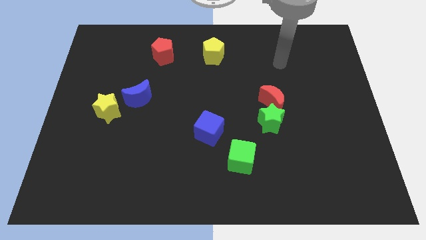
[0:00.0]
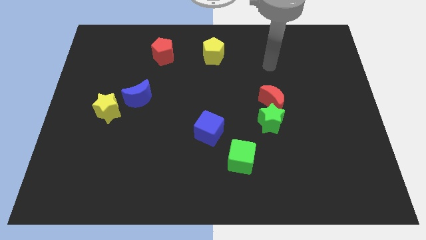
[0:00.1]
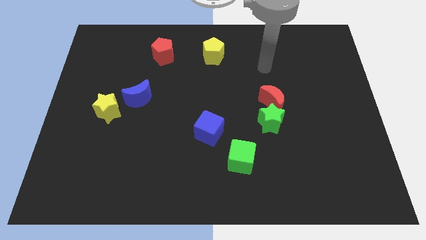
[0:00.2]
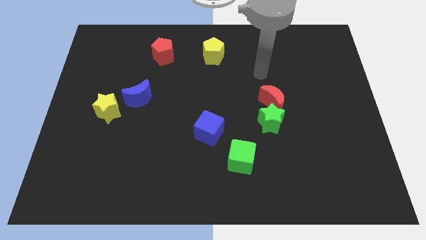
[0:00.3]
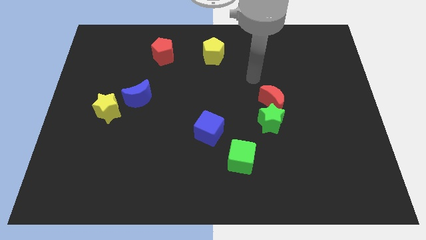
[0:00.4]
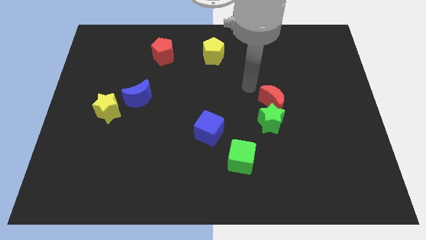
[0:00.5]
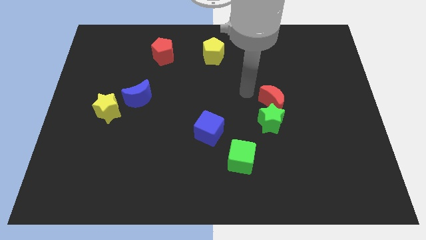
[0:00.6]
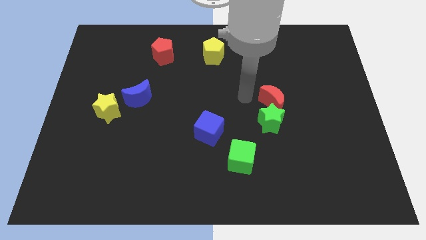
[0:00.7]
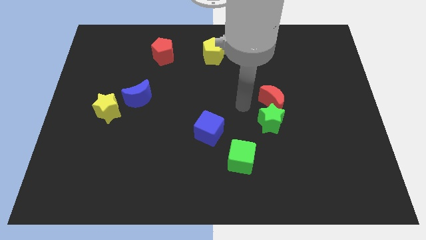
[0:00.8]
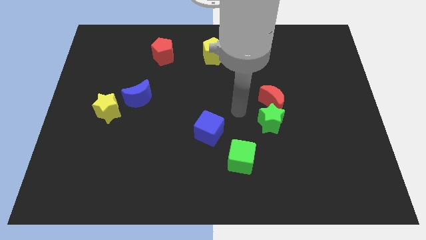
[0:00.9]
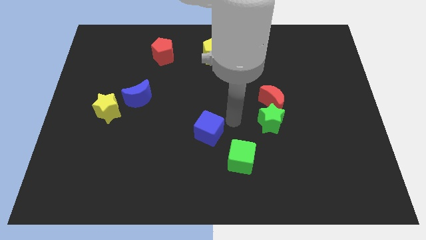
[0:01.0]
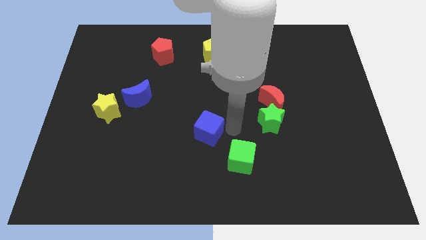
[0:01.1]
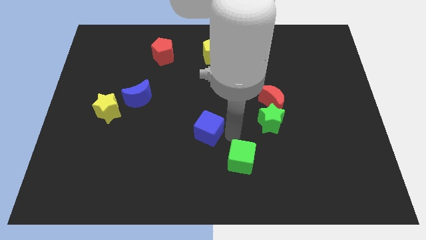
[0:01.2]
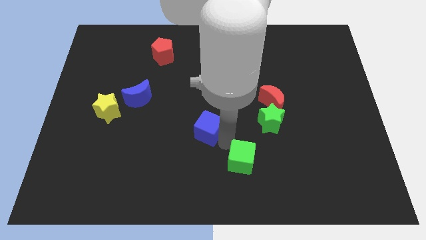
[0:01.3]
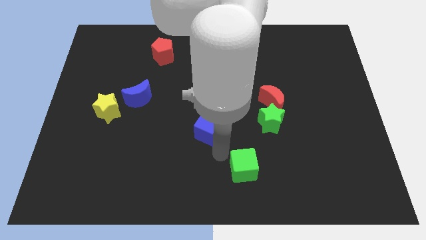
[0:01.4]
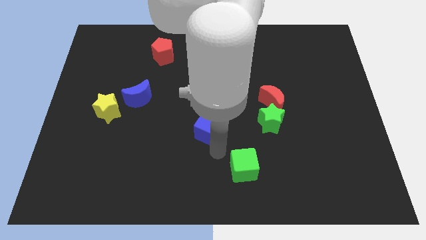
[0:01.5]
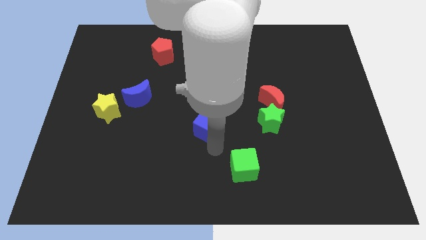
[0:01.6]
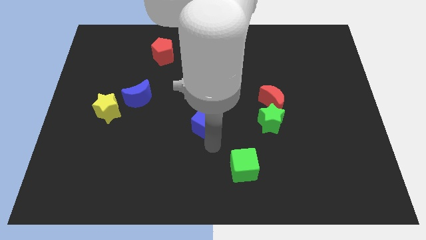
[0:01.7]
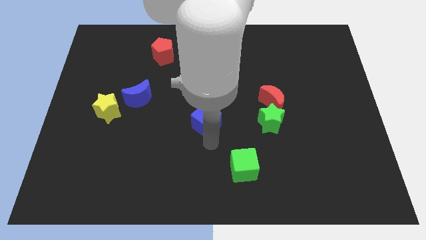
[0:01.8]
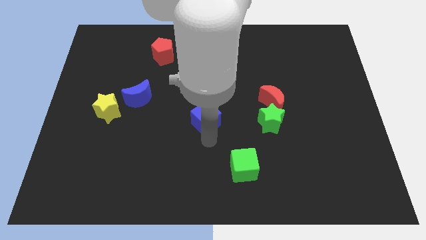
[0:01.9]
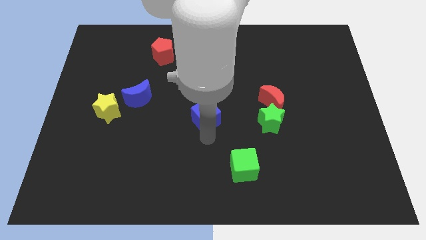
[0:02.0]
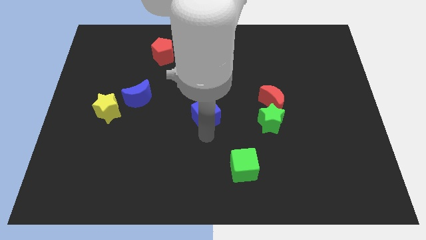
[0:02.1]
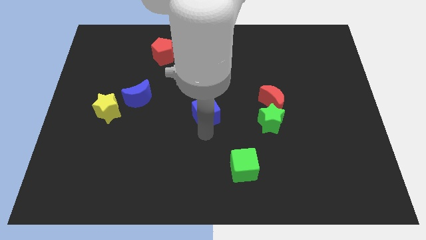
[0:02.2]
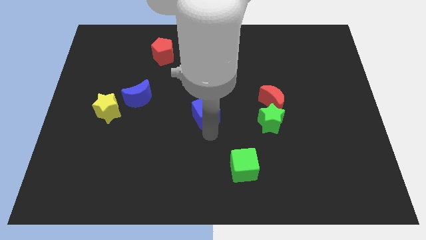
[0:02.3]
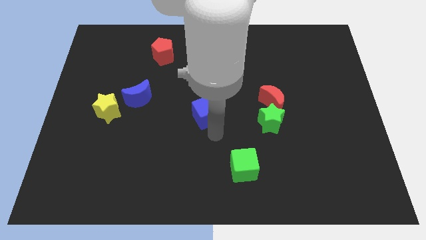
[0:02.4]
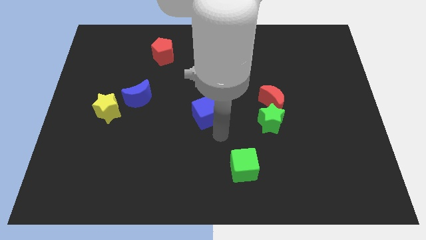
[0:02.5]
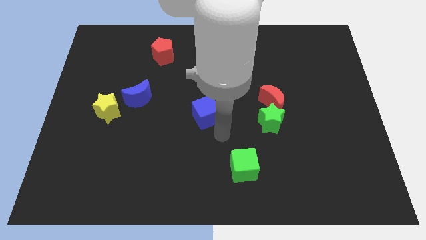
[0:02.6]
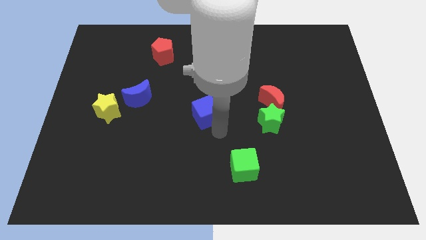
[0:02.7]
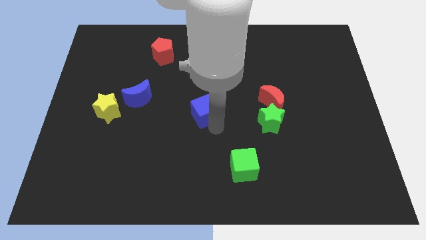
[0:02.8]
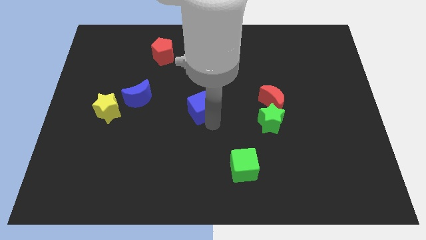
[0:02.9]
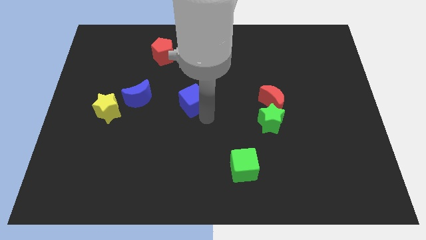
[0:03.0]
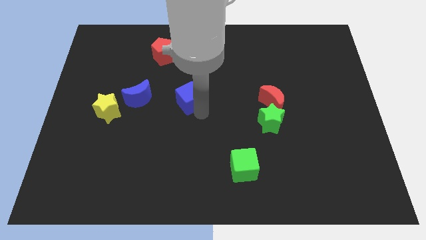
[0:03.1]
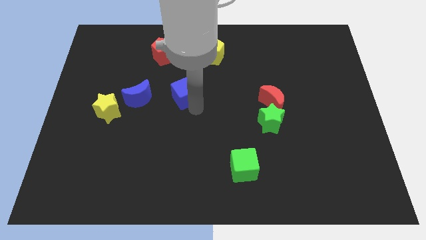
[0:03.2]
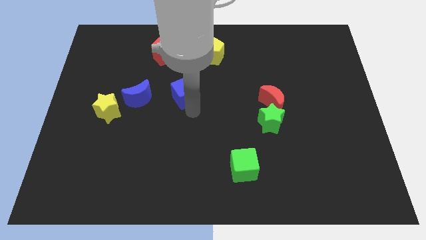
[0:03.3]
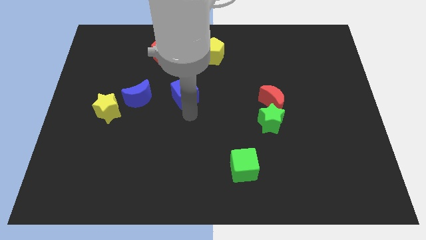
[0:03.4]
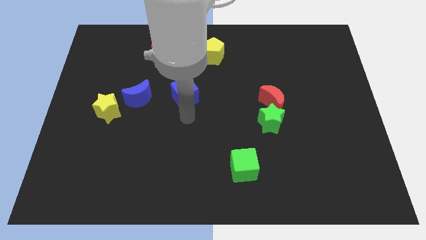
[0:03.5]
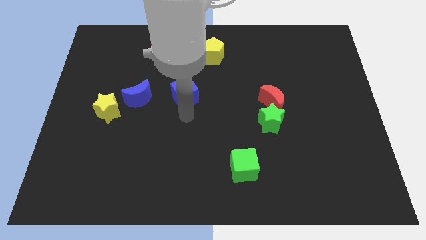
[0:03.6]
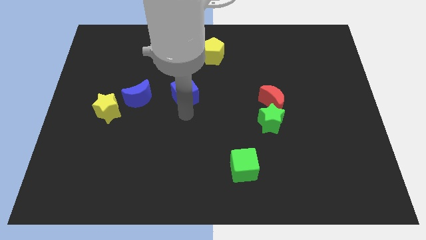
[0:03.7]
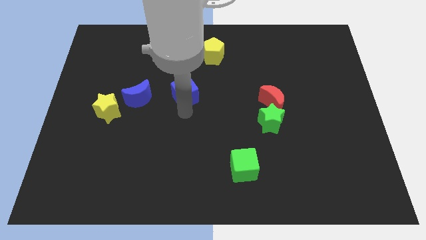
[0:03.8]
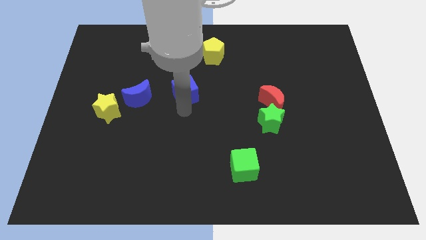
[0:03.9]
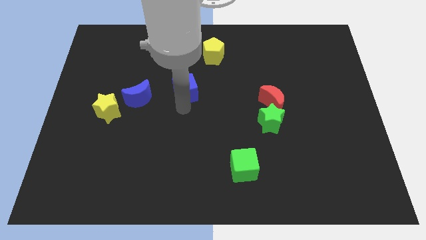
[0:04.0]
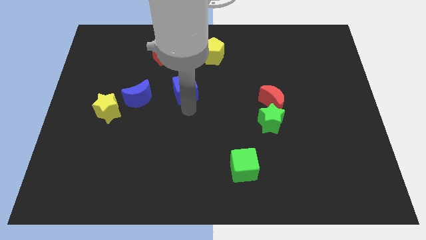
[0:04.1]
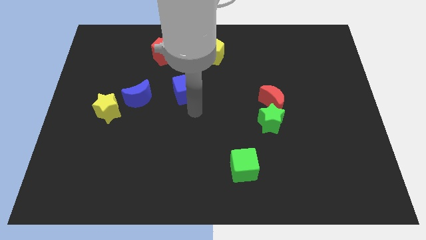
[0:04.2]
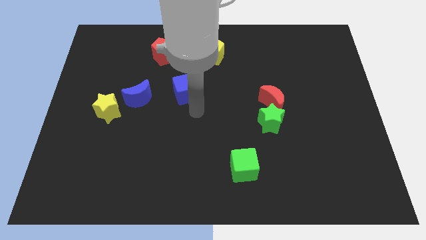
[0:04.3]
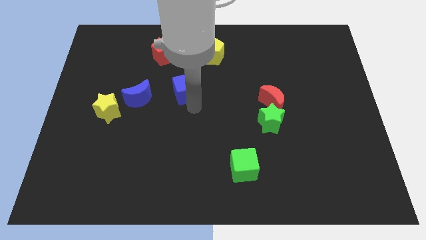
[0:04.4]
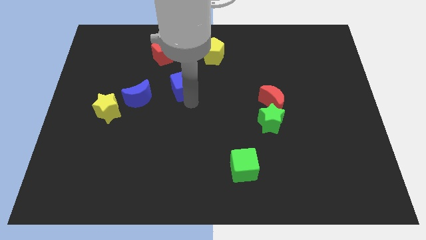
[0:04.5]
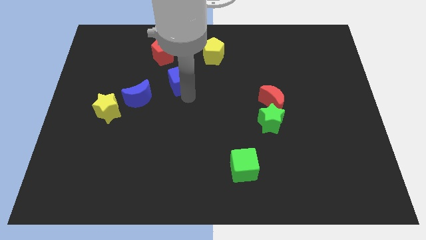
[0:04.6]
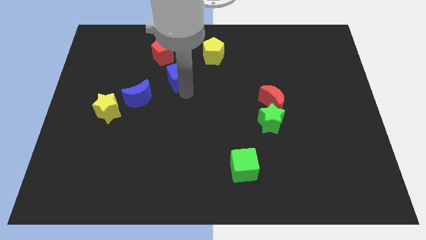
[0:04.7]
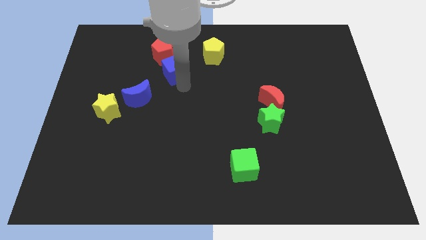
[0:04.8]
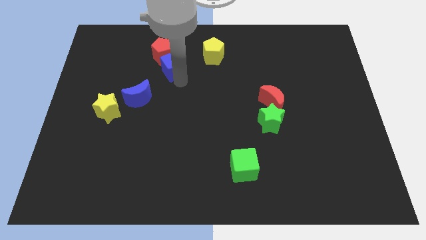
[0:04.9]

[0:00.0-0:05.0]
move the blue cube next to the red pentagon

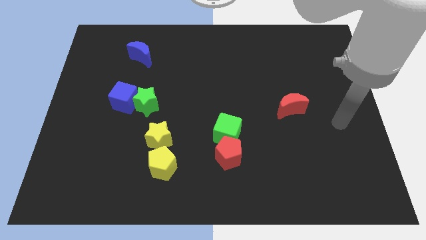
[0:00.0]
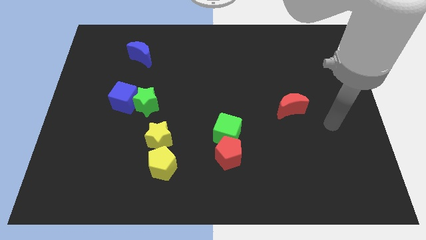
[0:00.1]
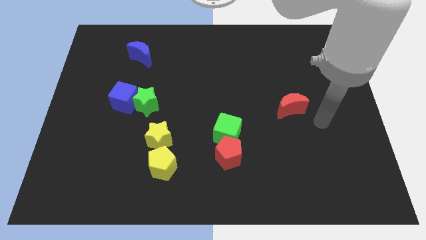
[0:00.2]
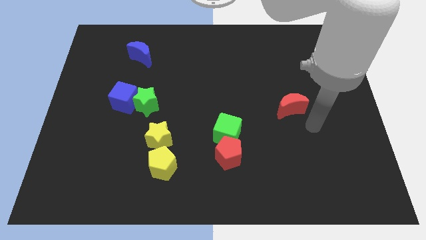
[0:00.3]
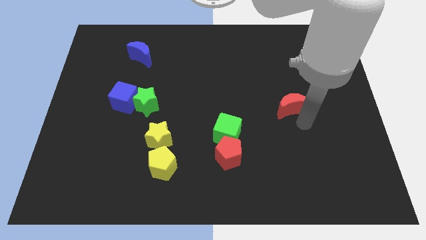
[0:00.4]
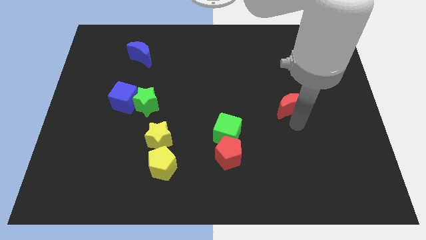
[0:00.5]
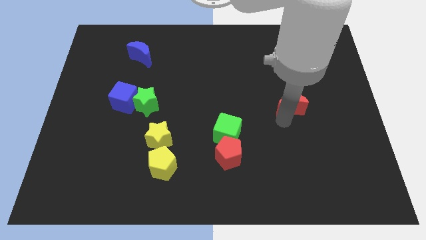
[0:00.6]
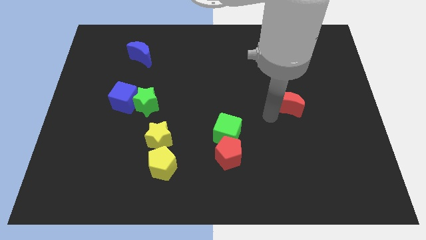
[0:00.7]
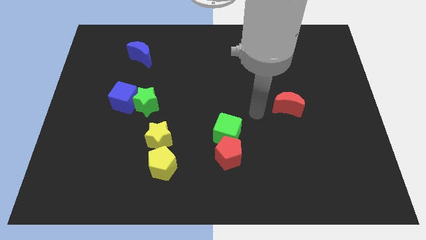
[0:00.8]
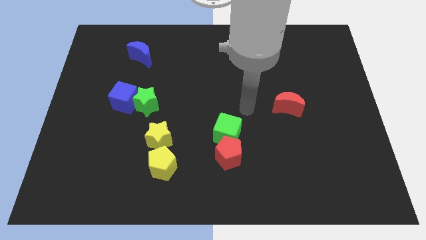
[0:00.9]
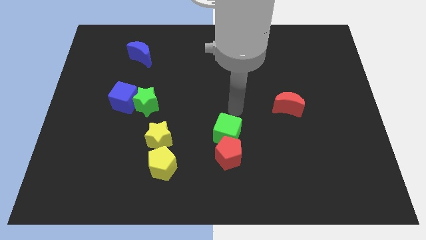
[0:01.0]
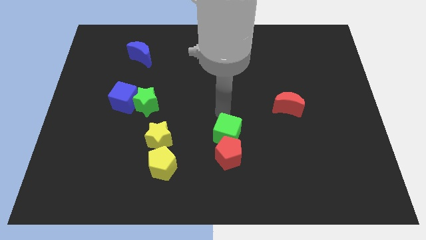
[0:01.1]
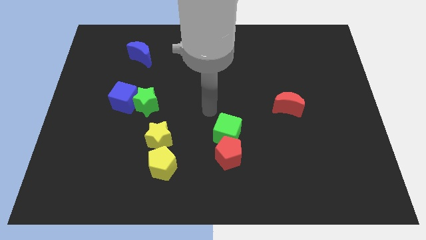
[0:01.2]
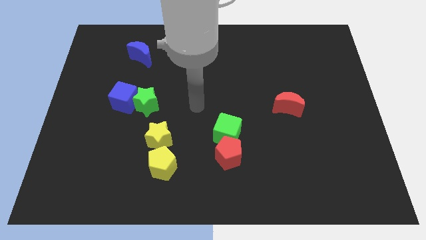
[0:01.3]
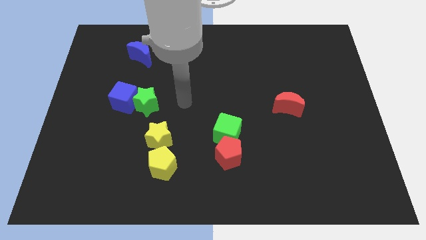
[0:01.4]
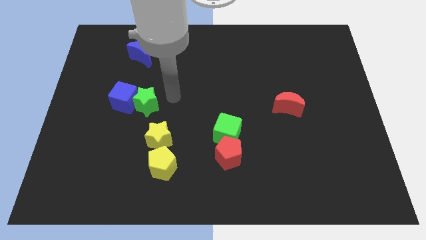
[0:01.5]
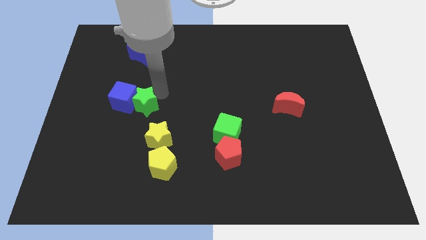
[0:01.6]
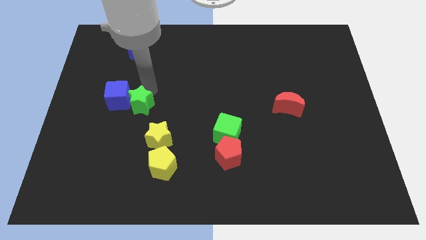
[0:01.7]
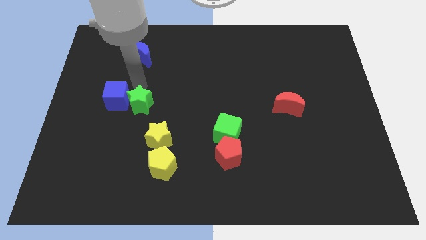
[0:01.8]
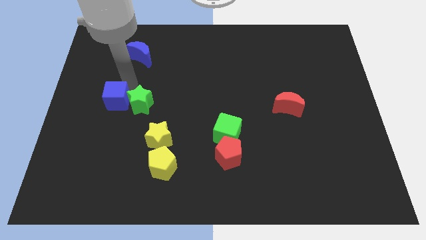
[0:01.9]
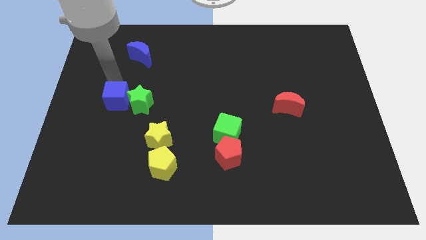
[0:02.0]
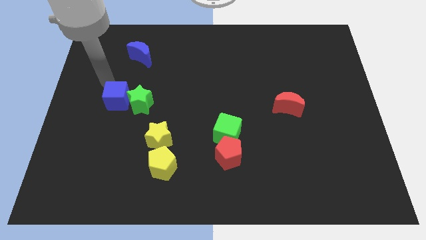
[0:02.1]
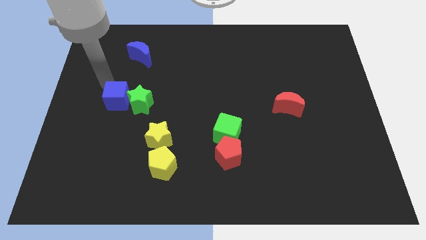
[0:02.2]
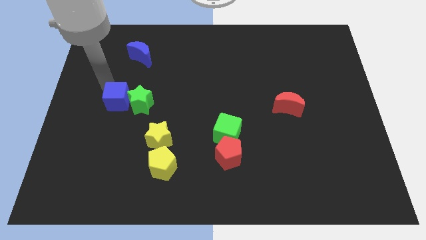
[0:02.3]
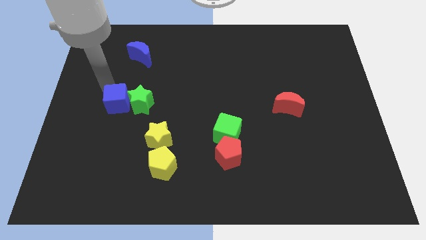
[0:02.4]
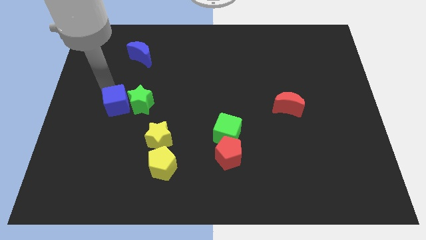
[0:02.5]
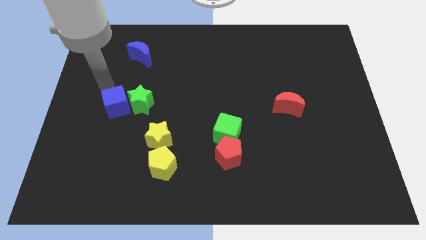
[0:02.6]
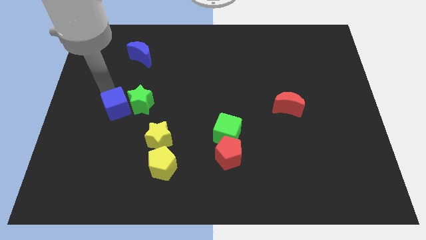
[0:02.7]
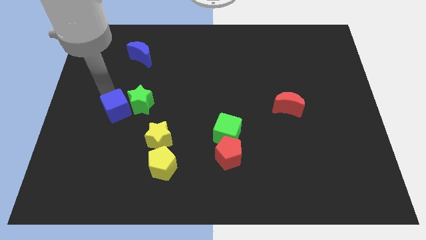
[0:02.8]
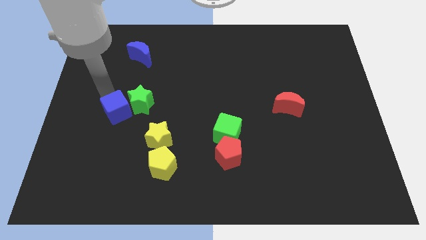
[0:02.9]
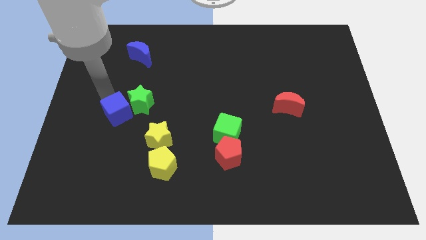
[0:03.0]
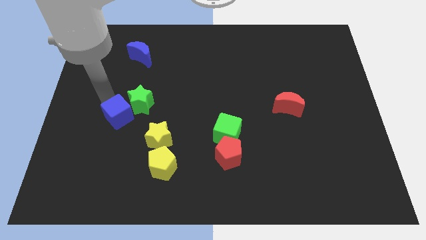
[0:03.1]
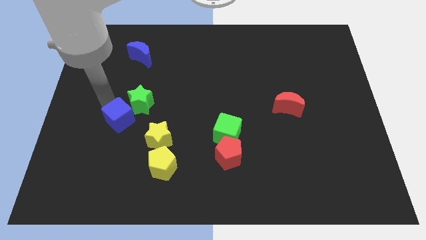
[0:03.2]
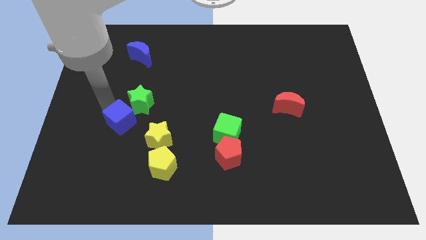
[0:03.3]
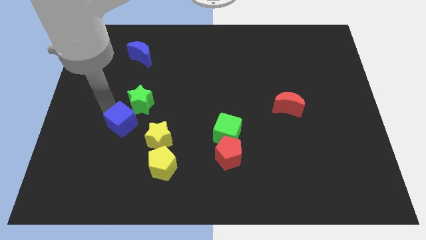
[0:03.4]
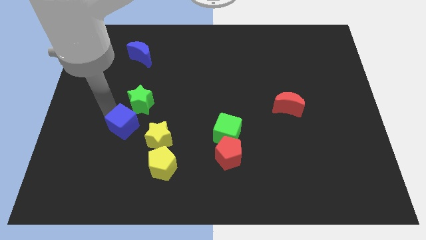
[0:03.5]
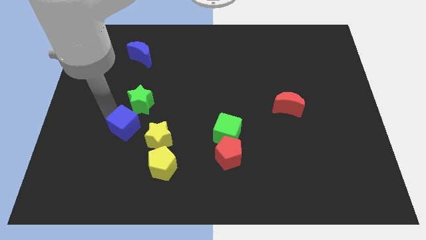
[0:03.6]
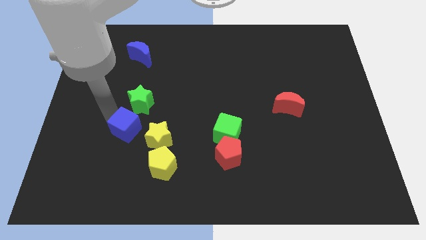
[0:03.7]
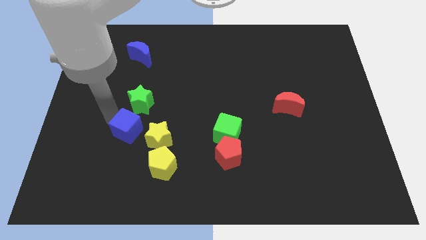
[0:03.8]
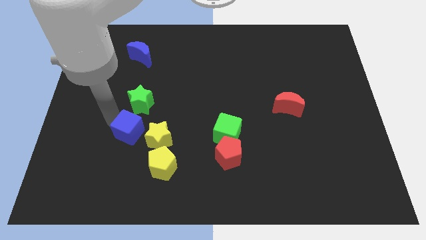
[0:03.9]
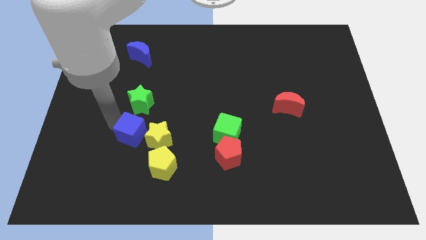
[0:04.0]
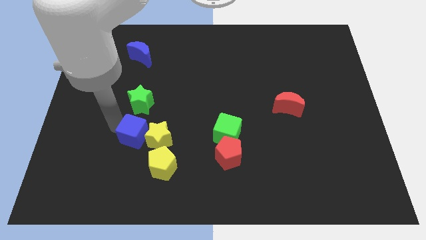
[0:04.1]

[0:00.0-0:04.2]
move the blue cube towards the yellow star
